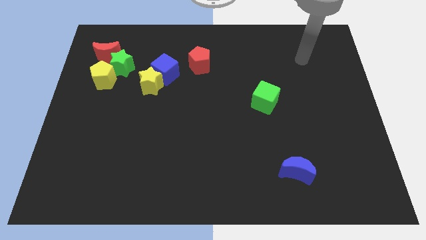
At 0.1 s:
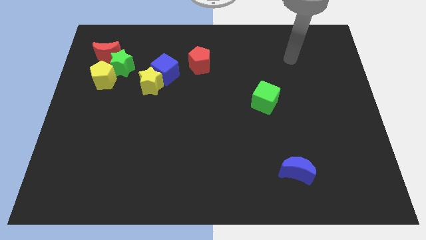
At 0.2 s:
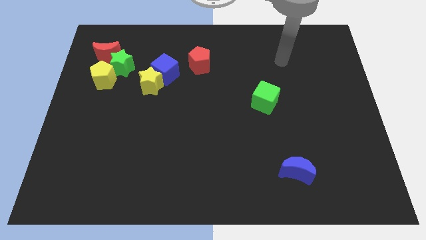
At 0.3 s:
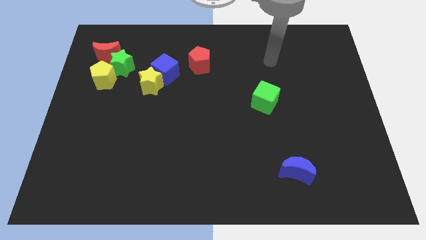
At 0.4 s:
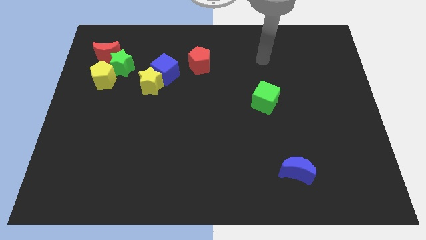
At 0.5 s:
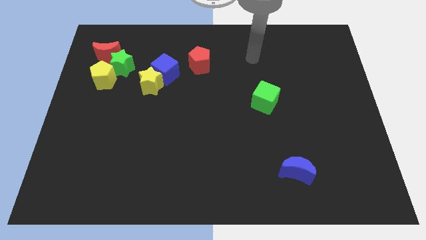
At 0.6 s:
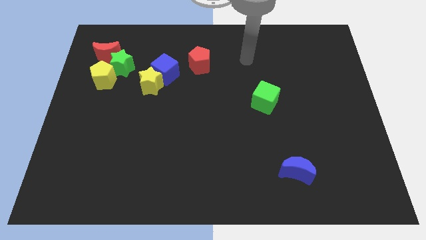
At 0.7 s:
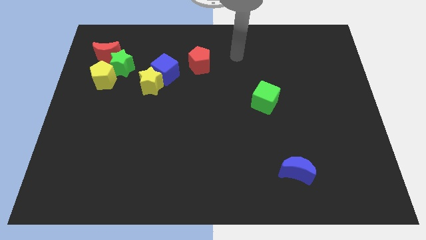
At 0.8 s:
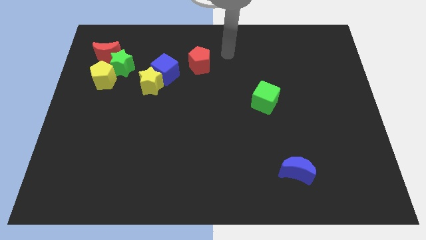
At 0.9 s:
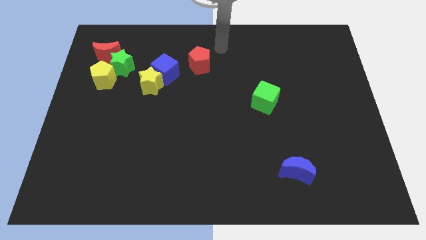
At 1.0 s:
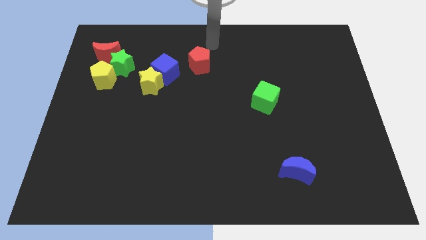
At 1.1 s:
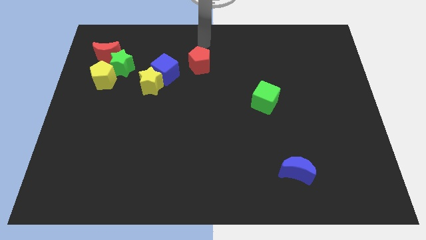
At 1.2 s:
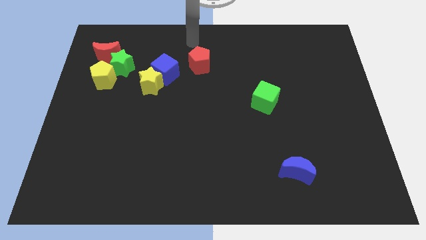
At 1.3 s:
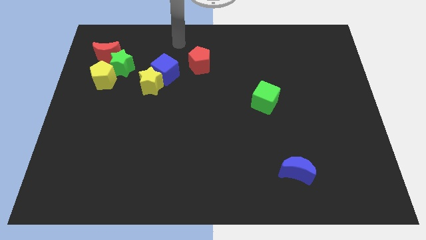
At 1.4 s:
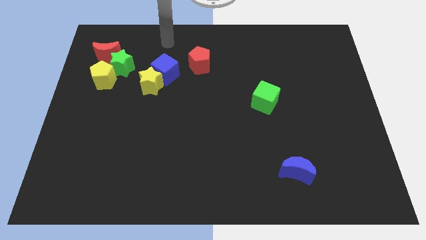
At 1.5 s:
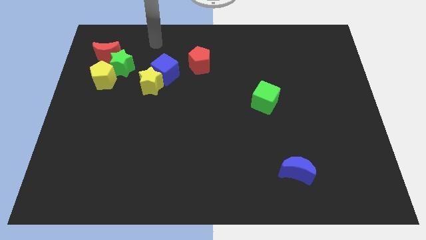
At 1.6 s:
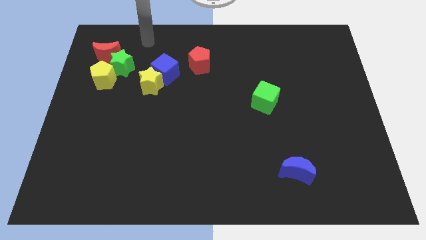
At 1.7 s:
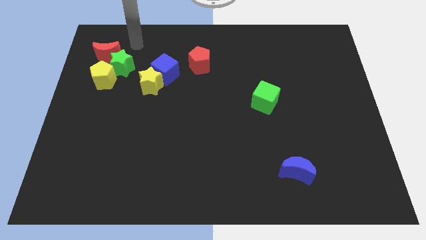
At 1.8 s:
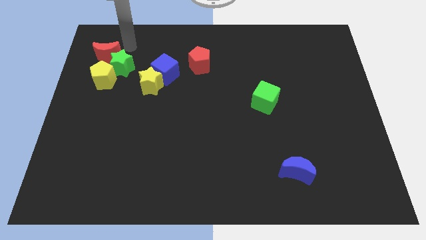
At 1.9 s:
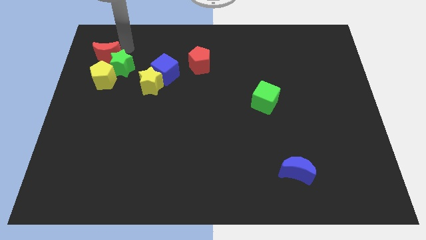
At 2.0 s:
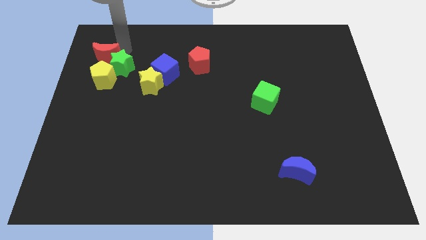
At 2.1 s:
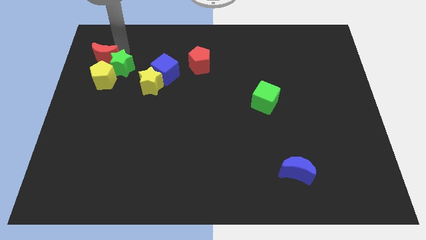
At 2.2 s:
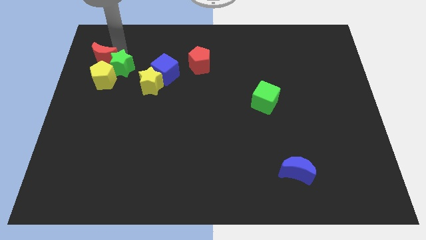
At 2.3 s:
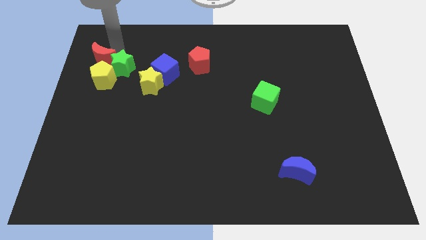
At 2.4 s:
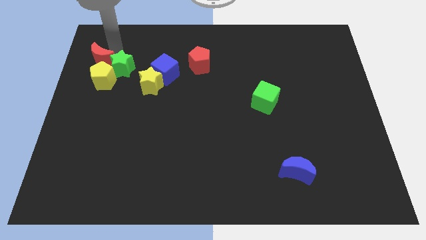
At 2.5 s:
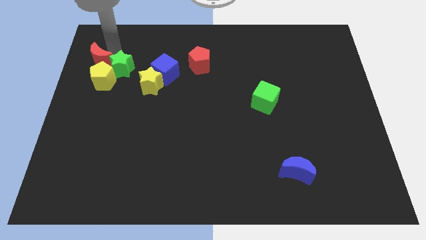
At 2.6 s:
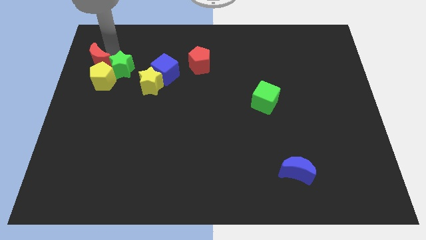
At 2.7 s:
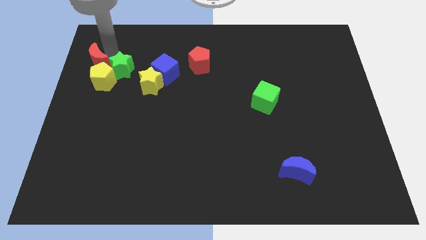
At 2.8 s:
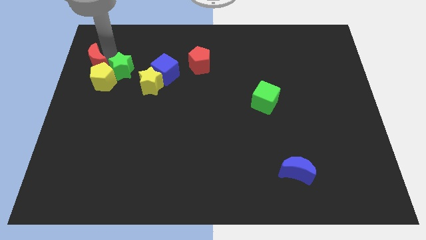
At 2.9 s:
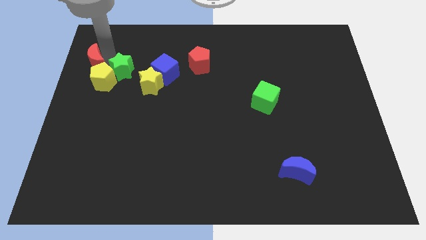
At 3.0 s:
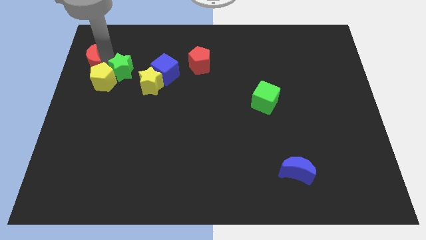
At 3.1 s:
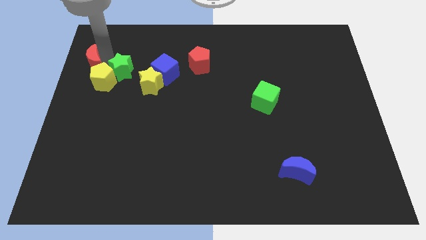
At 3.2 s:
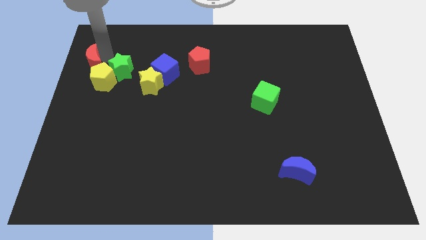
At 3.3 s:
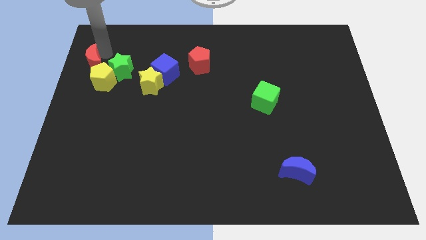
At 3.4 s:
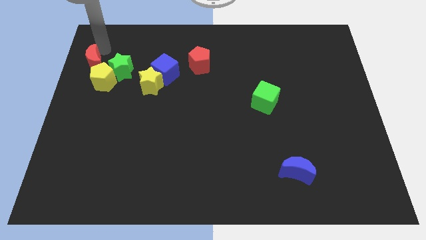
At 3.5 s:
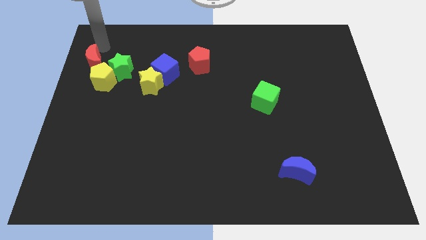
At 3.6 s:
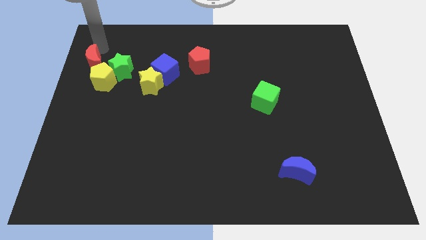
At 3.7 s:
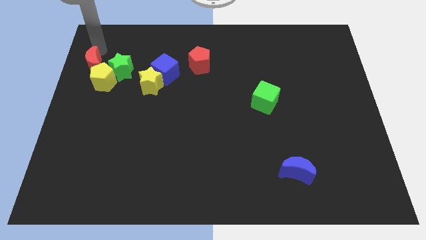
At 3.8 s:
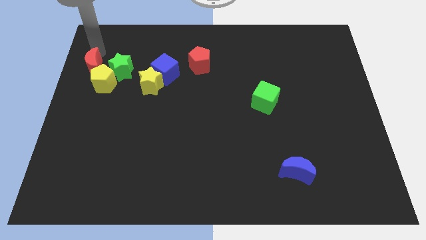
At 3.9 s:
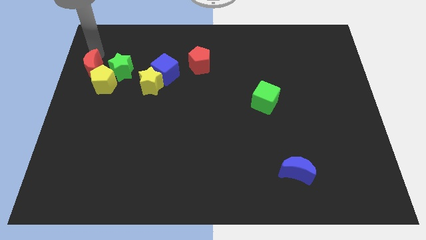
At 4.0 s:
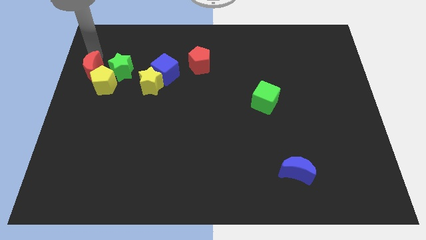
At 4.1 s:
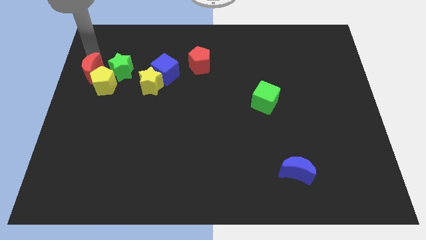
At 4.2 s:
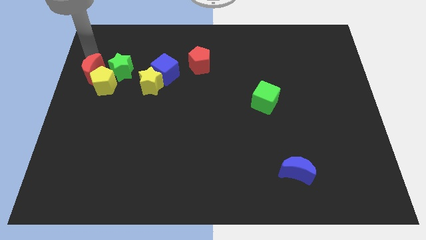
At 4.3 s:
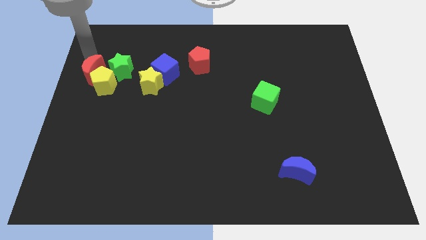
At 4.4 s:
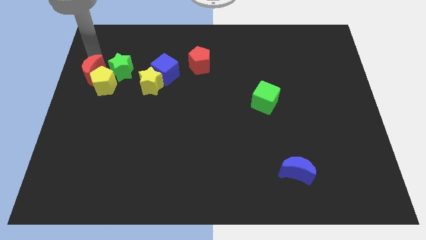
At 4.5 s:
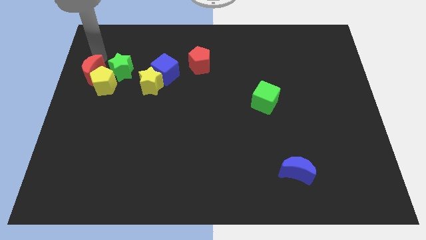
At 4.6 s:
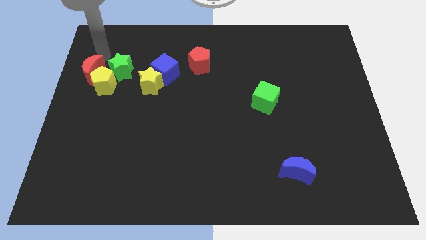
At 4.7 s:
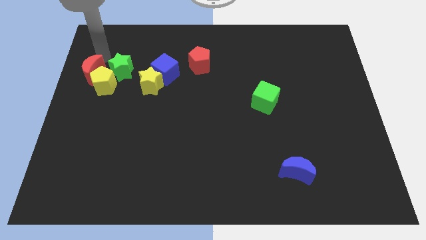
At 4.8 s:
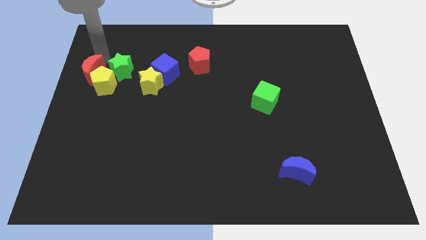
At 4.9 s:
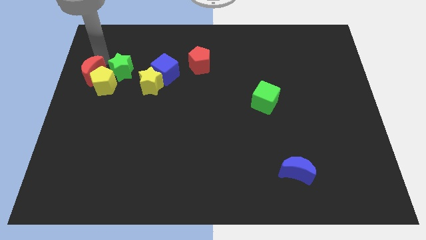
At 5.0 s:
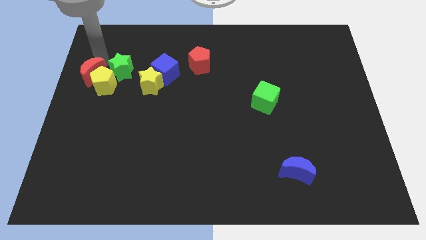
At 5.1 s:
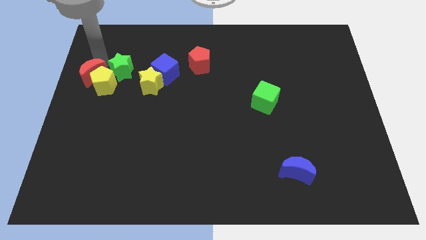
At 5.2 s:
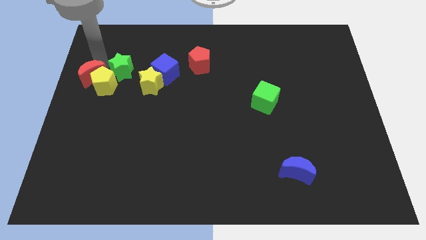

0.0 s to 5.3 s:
slide the red moon downwards somewhat

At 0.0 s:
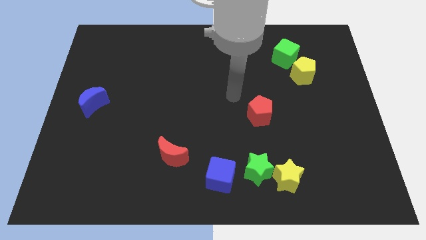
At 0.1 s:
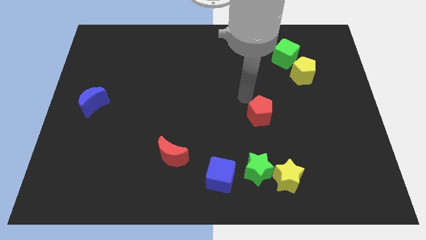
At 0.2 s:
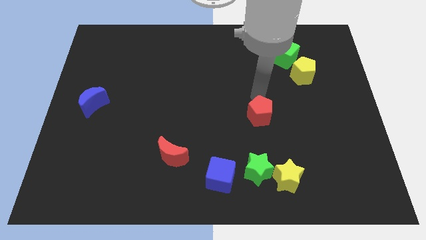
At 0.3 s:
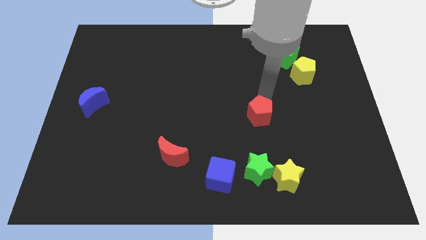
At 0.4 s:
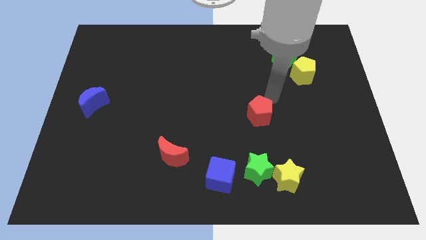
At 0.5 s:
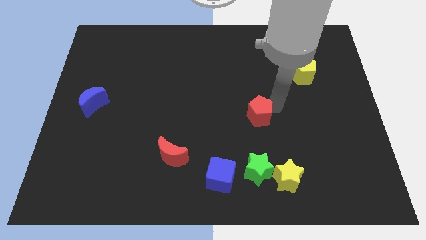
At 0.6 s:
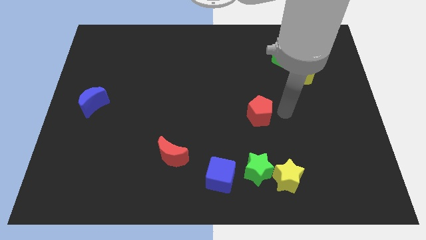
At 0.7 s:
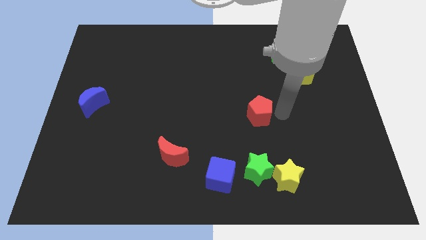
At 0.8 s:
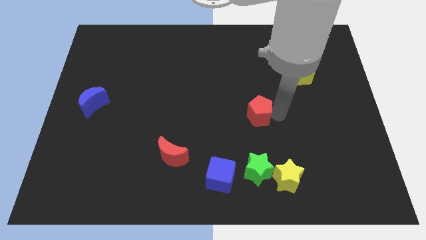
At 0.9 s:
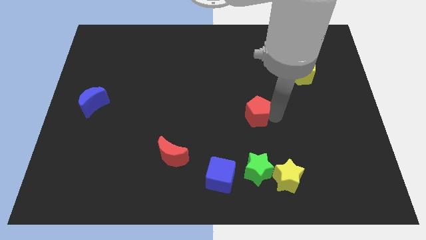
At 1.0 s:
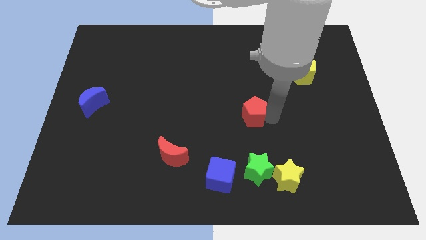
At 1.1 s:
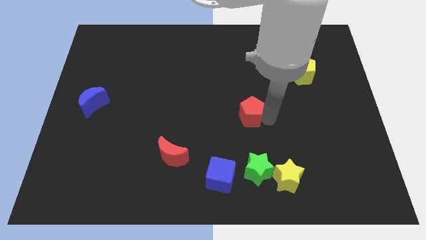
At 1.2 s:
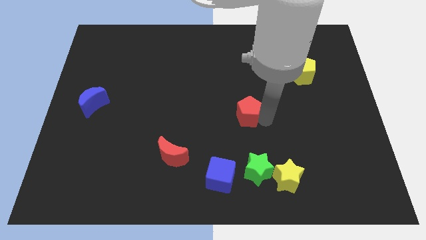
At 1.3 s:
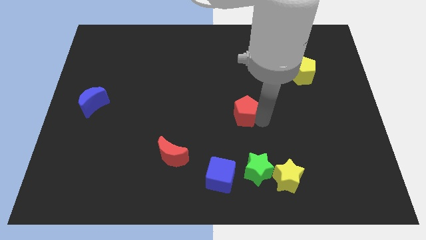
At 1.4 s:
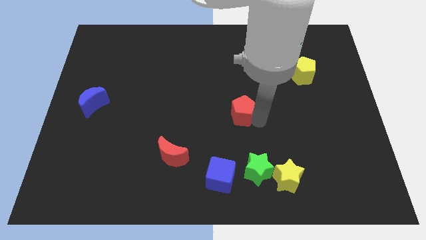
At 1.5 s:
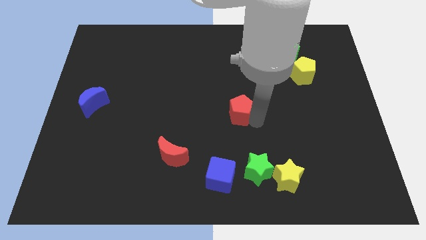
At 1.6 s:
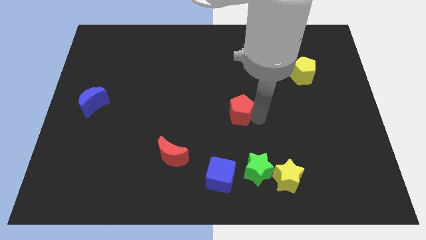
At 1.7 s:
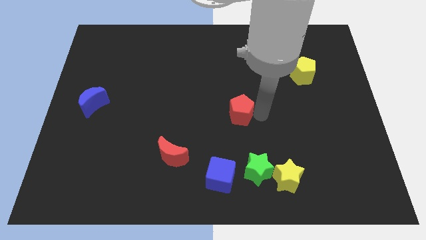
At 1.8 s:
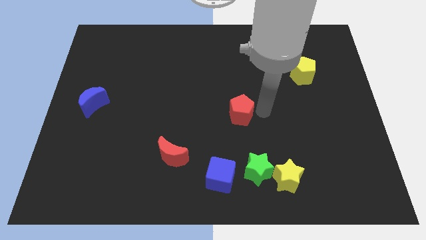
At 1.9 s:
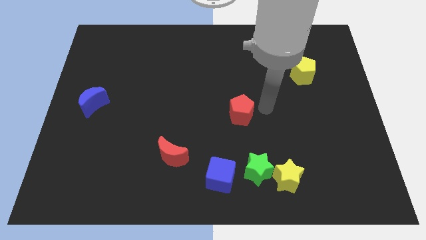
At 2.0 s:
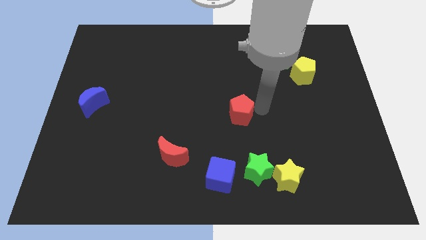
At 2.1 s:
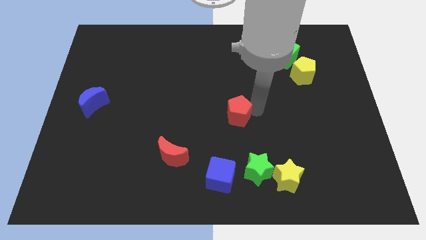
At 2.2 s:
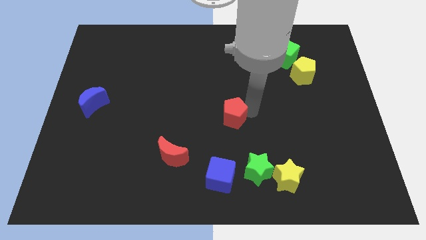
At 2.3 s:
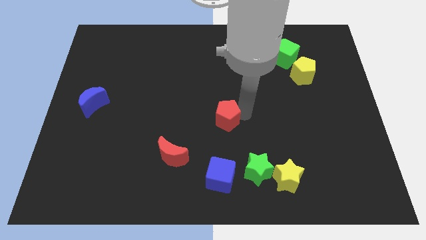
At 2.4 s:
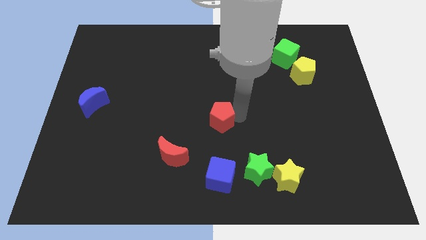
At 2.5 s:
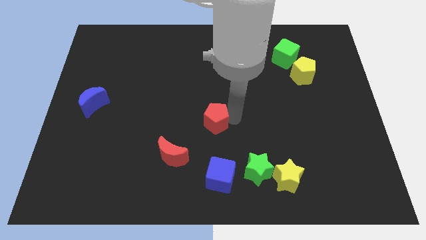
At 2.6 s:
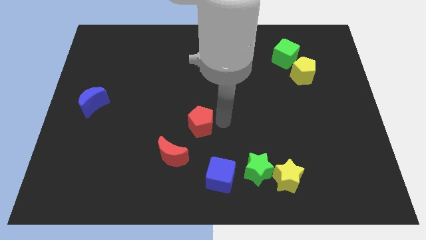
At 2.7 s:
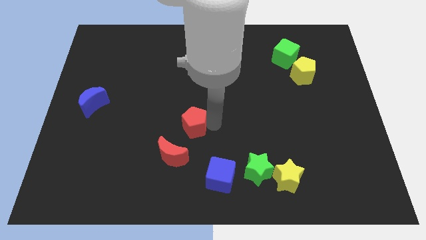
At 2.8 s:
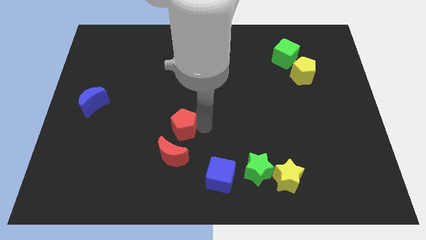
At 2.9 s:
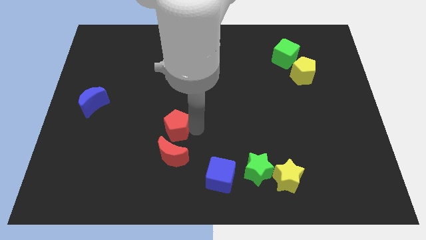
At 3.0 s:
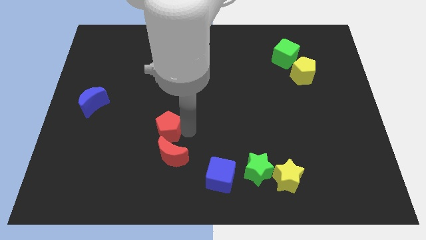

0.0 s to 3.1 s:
move the red pentagon to the left

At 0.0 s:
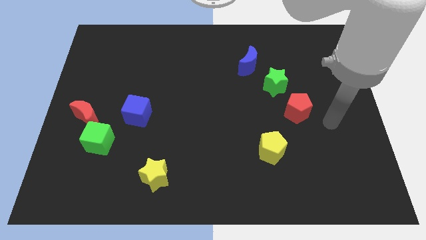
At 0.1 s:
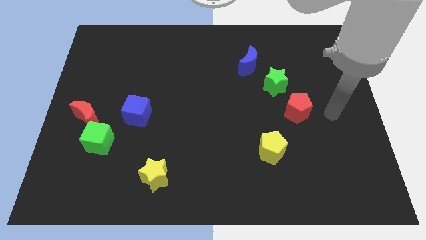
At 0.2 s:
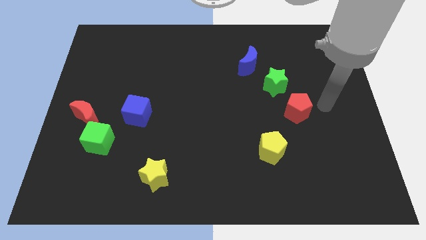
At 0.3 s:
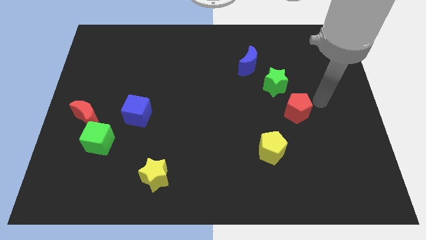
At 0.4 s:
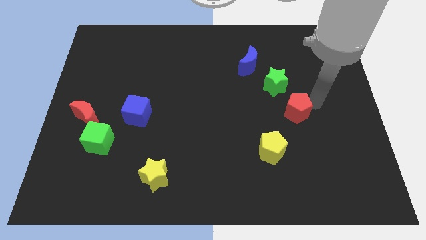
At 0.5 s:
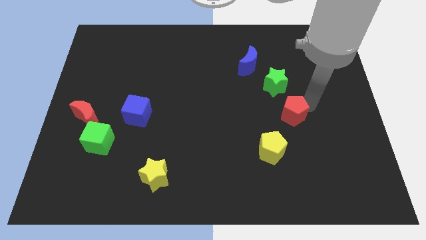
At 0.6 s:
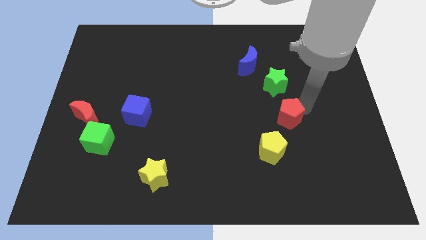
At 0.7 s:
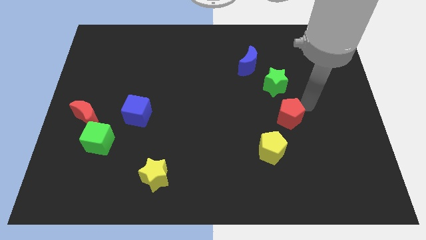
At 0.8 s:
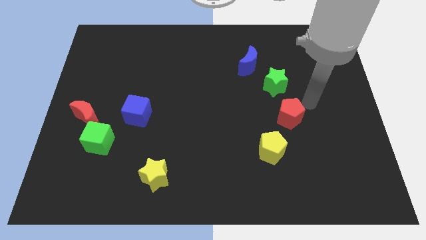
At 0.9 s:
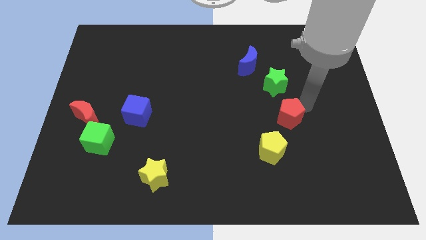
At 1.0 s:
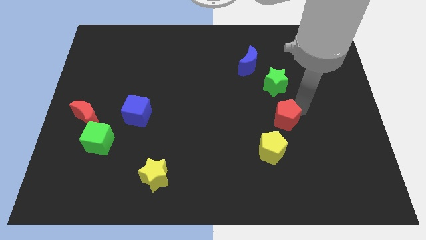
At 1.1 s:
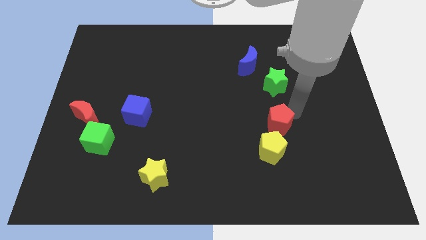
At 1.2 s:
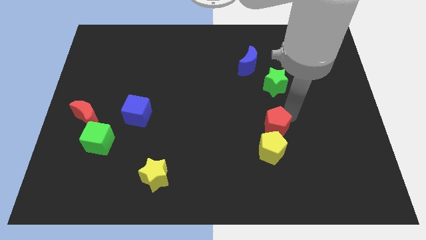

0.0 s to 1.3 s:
slightly slide the red pentagon downwards and to the left
